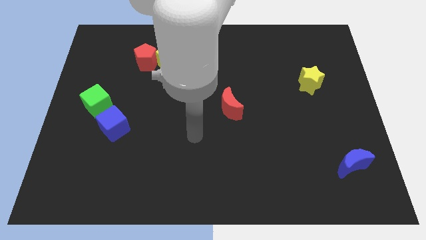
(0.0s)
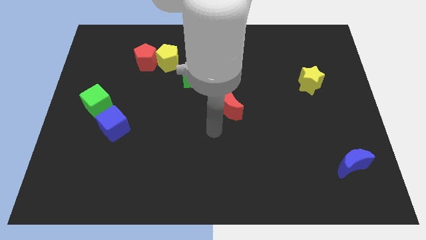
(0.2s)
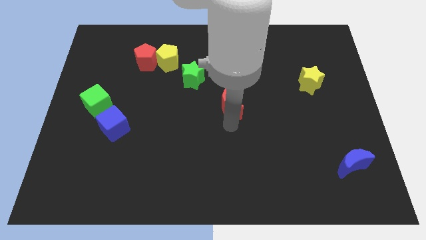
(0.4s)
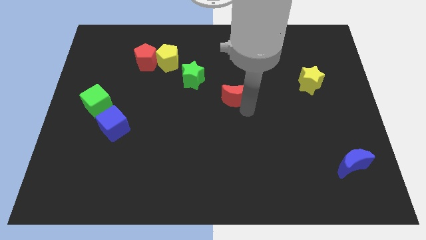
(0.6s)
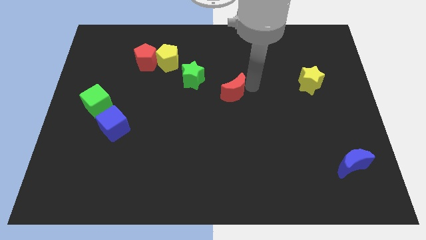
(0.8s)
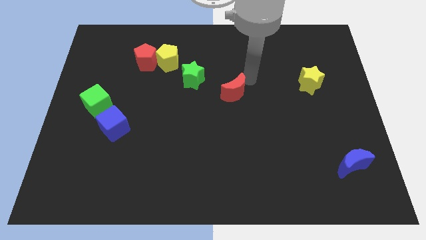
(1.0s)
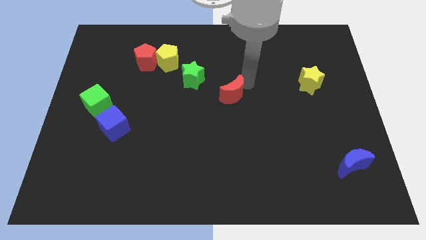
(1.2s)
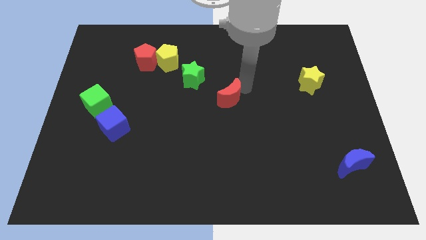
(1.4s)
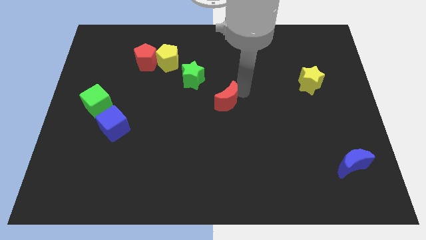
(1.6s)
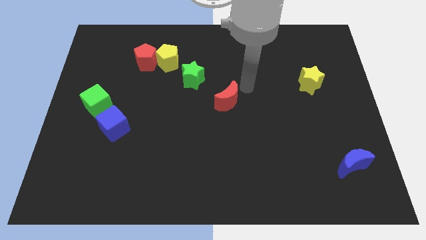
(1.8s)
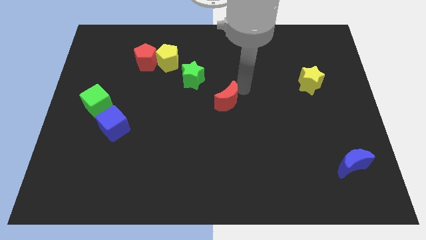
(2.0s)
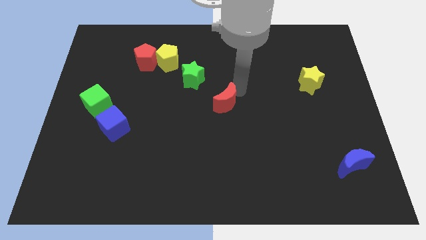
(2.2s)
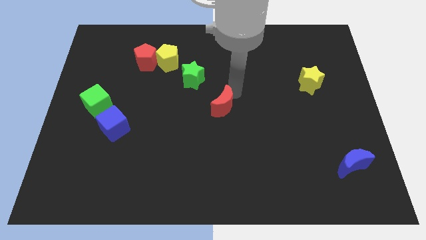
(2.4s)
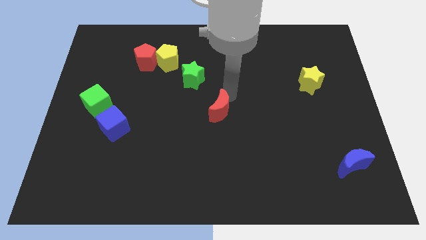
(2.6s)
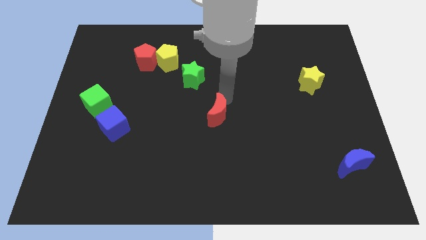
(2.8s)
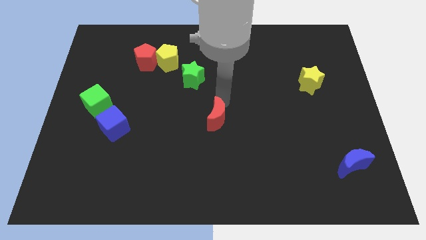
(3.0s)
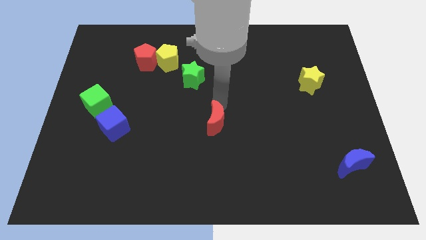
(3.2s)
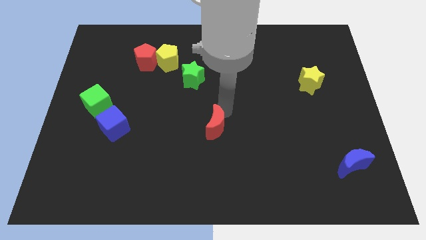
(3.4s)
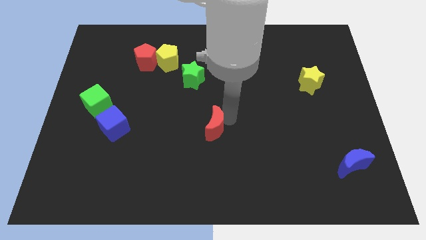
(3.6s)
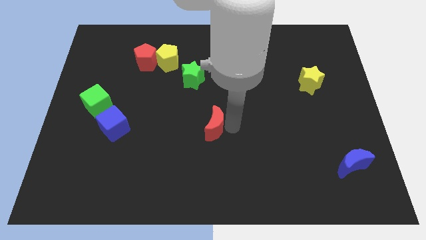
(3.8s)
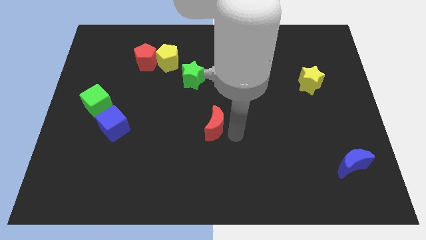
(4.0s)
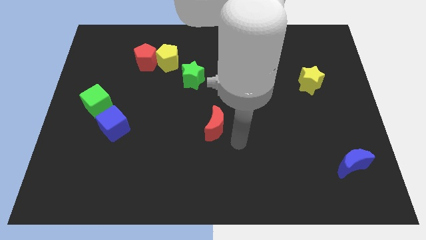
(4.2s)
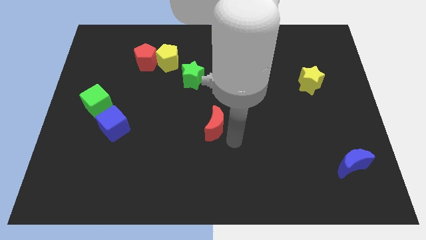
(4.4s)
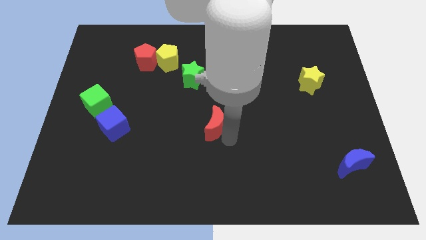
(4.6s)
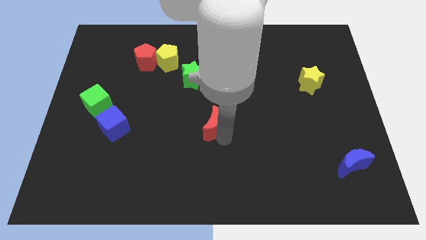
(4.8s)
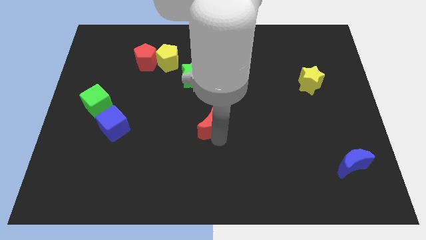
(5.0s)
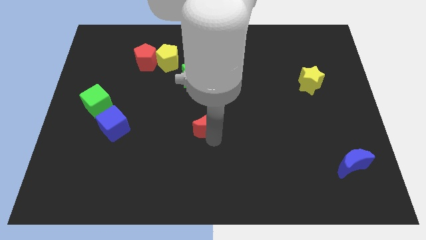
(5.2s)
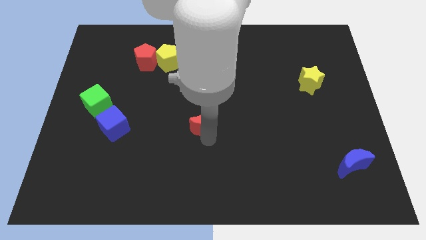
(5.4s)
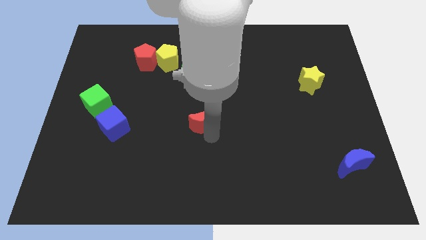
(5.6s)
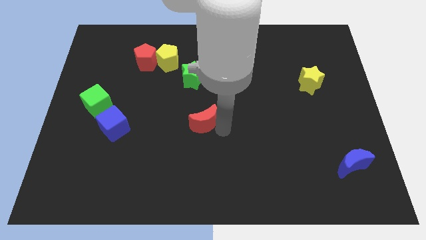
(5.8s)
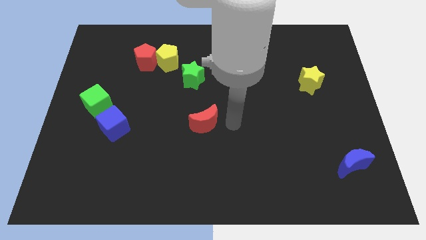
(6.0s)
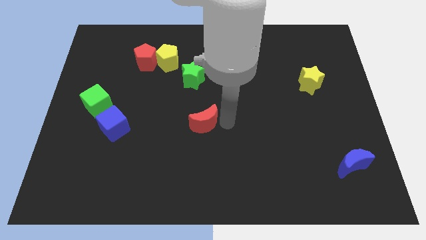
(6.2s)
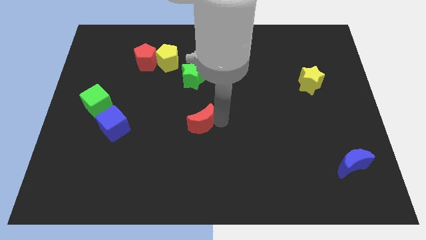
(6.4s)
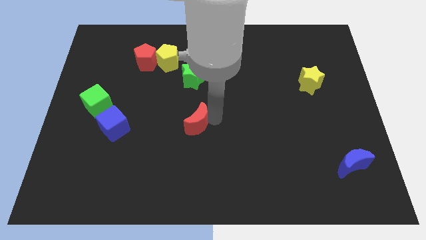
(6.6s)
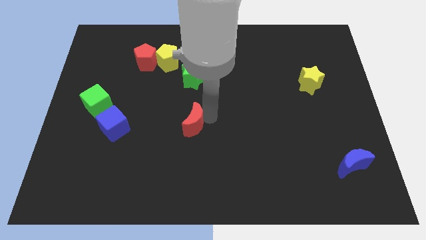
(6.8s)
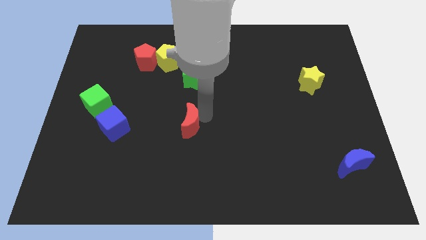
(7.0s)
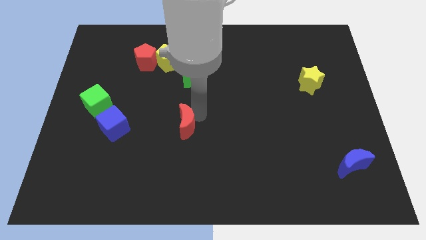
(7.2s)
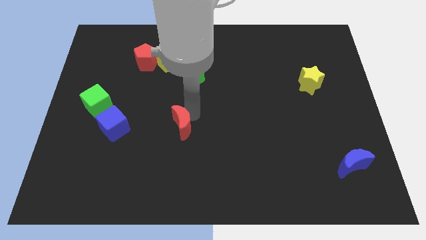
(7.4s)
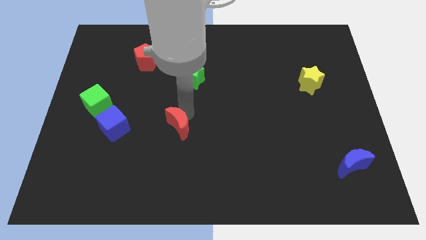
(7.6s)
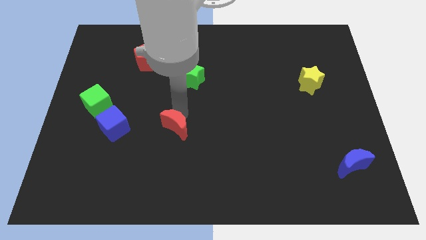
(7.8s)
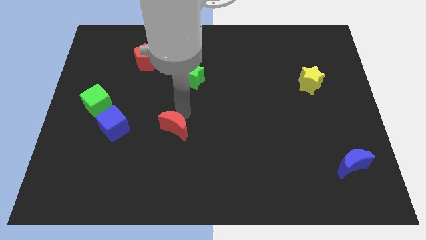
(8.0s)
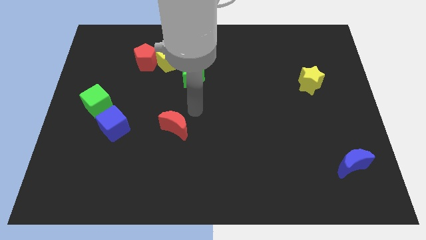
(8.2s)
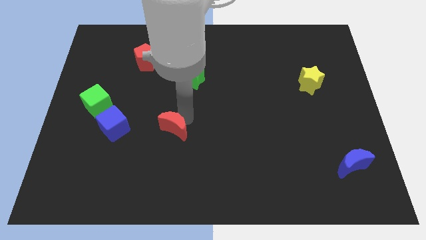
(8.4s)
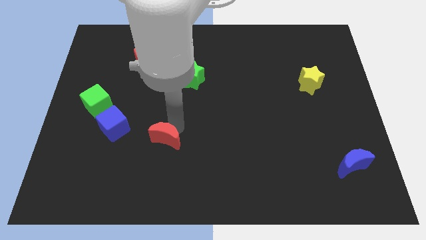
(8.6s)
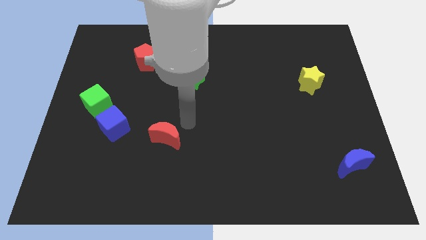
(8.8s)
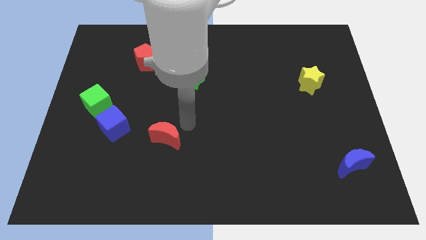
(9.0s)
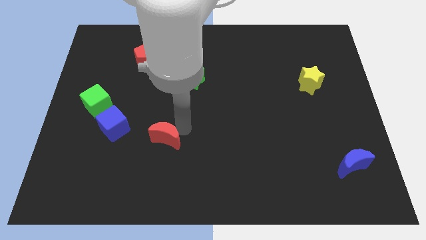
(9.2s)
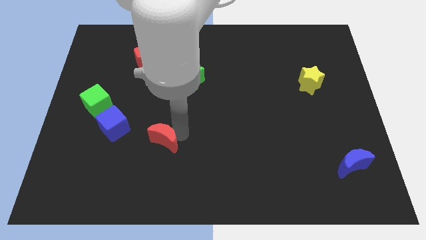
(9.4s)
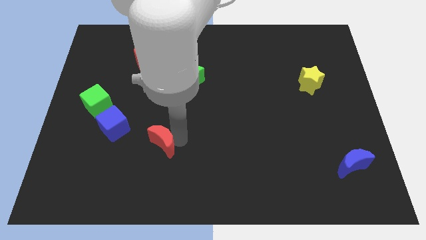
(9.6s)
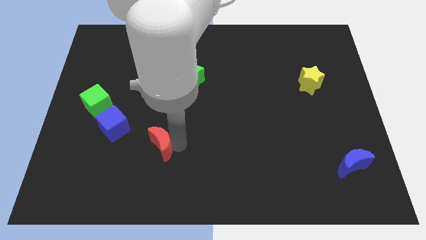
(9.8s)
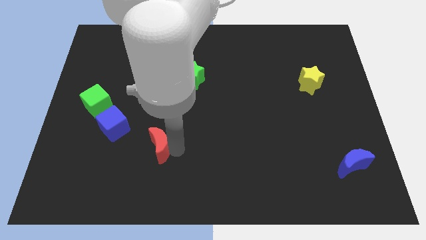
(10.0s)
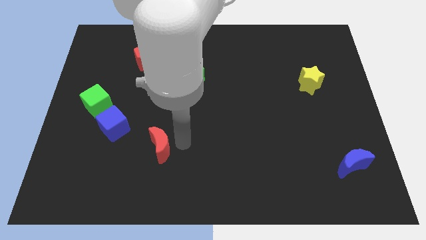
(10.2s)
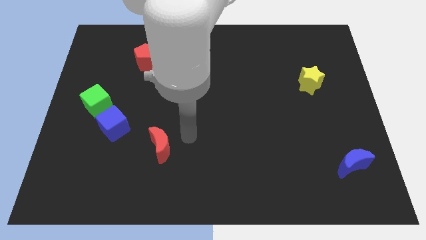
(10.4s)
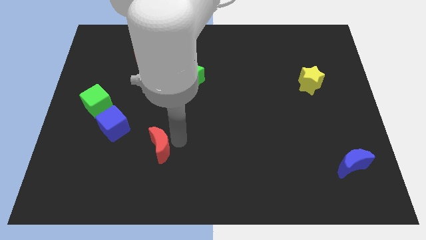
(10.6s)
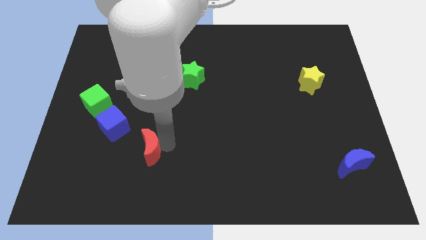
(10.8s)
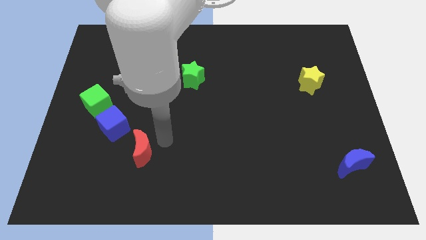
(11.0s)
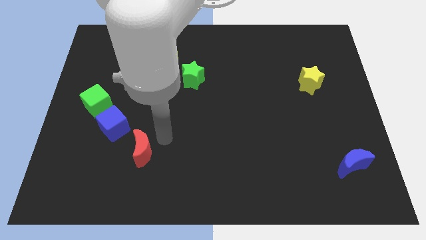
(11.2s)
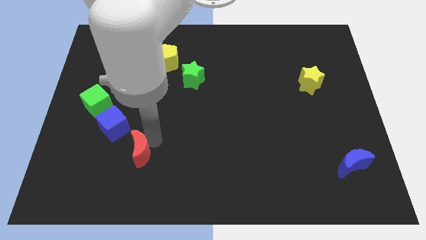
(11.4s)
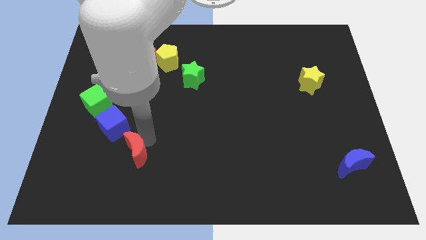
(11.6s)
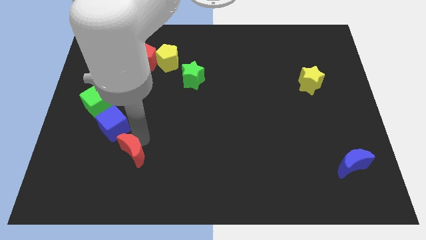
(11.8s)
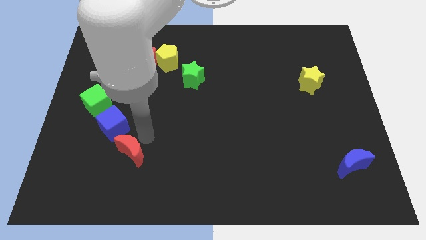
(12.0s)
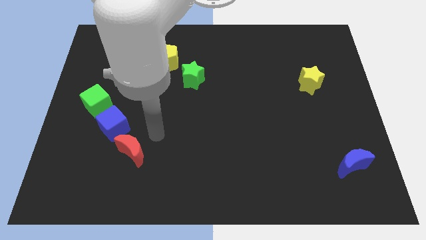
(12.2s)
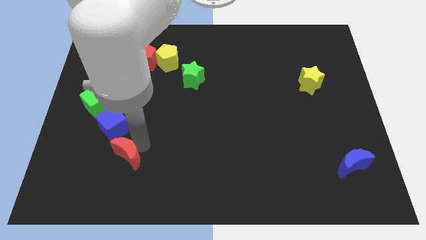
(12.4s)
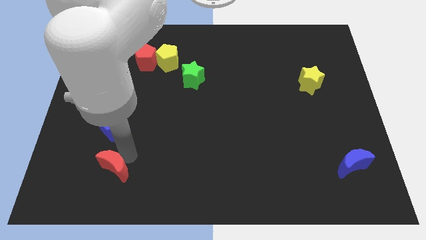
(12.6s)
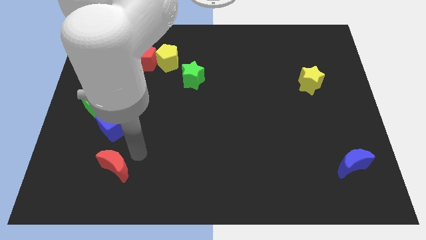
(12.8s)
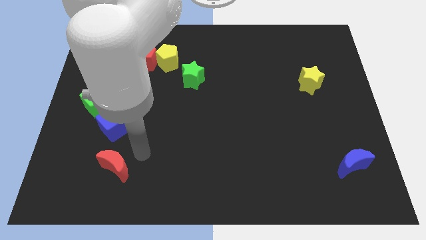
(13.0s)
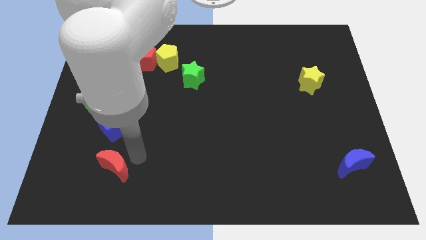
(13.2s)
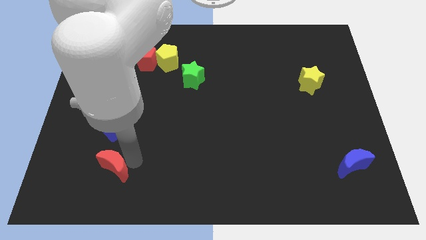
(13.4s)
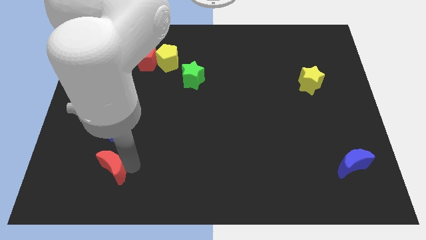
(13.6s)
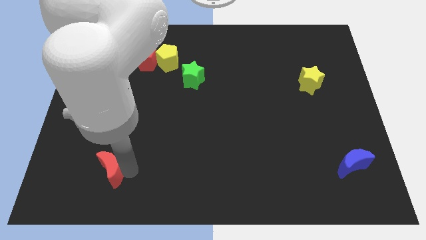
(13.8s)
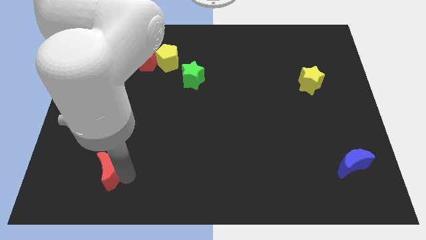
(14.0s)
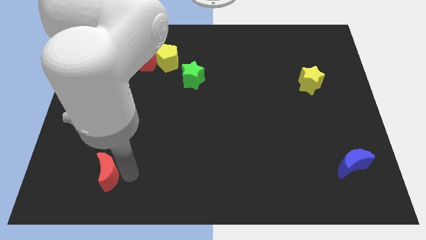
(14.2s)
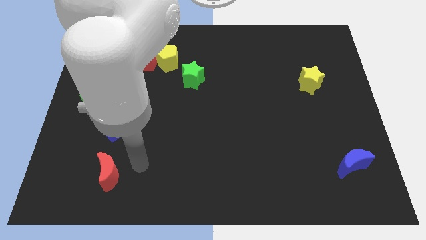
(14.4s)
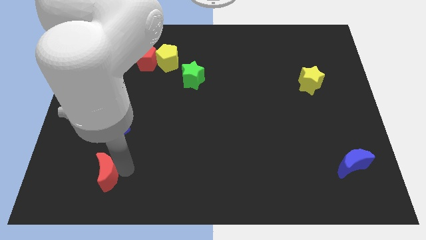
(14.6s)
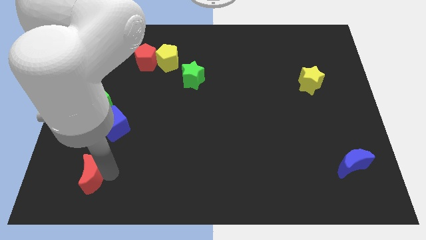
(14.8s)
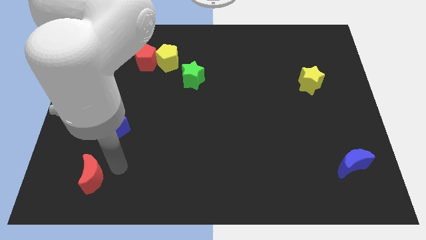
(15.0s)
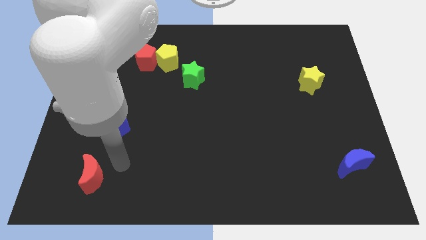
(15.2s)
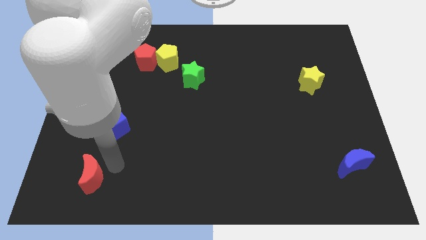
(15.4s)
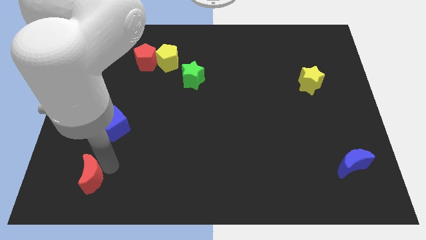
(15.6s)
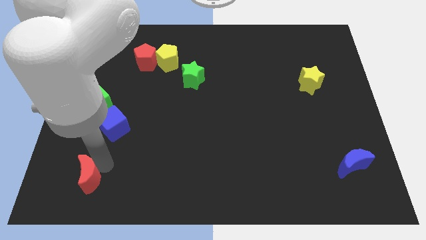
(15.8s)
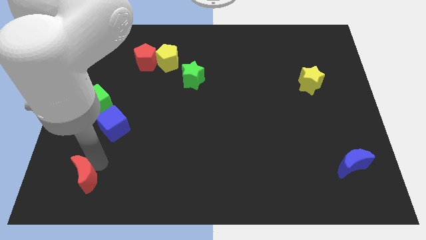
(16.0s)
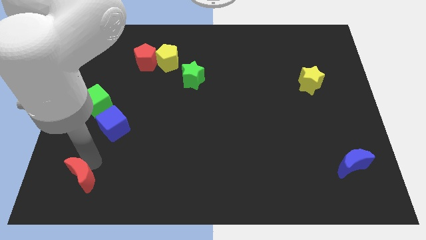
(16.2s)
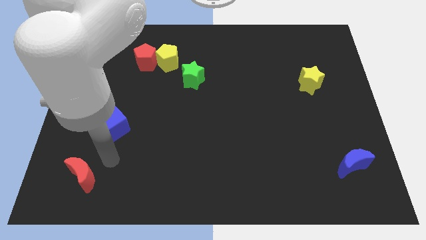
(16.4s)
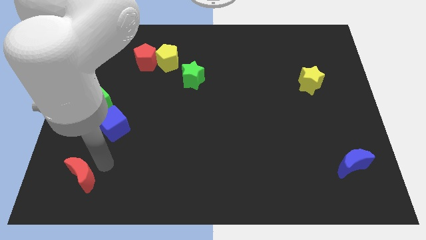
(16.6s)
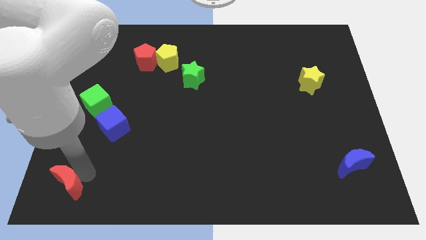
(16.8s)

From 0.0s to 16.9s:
put the red moon to the bottom left corner
